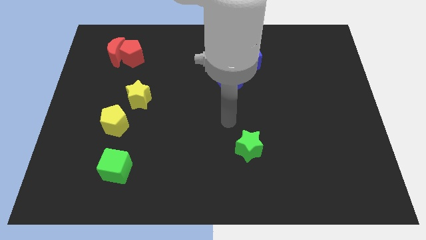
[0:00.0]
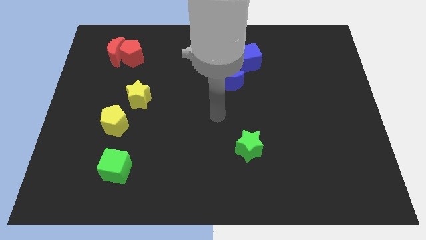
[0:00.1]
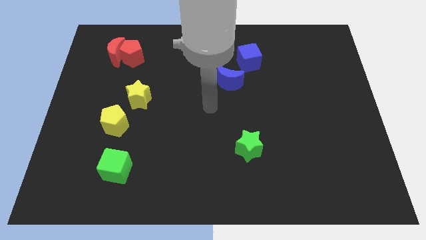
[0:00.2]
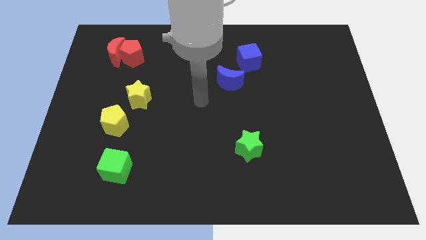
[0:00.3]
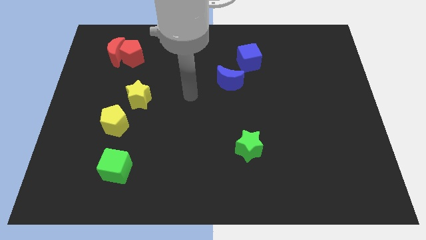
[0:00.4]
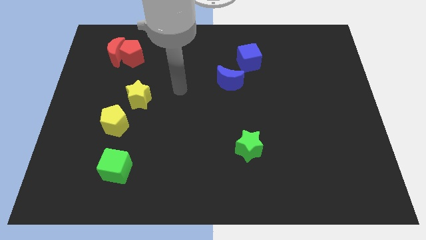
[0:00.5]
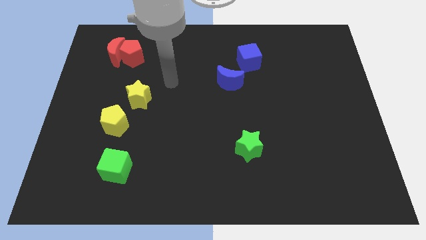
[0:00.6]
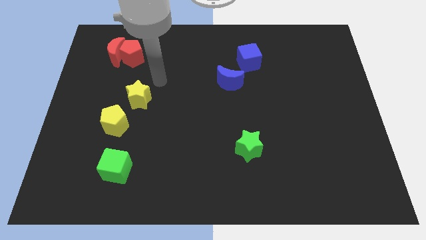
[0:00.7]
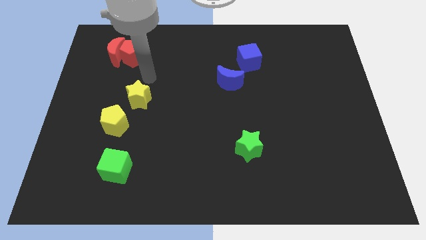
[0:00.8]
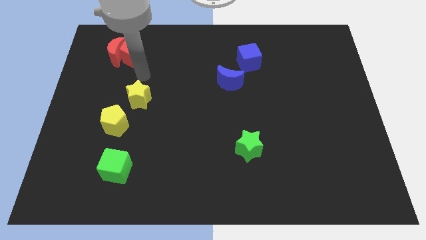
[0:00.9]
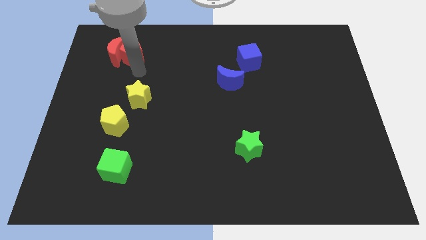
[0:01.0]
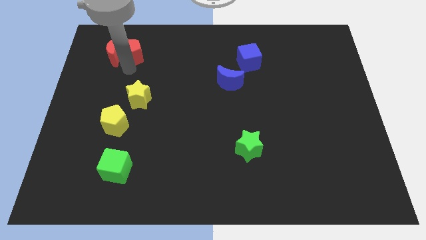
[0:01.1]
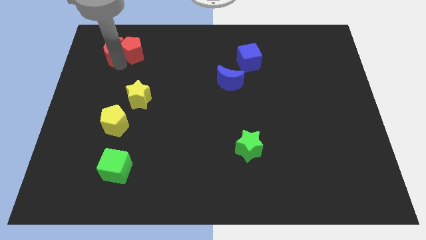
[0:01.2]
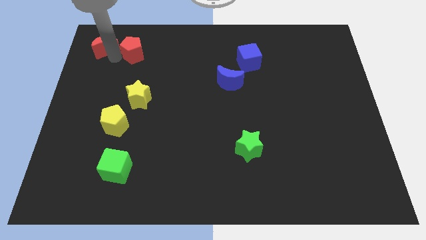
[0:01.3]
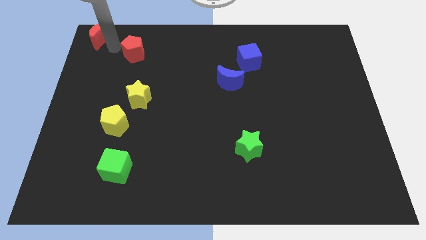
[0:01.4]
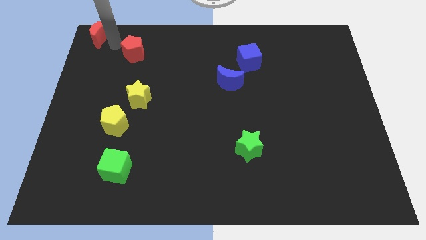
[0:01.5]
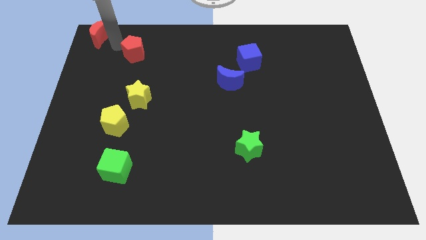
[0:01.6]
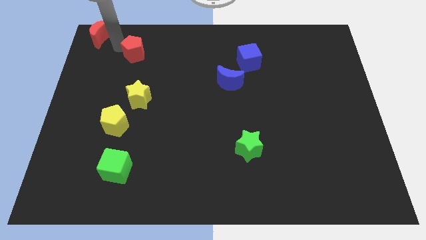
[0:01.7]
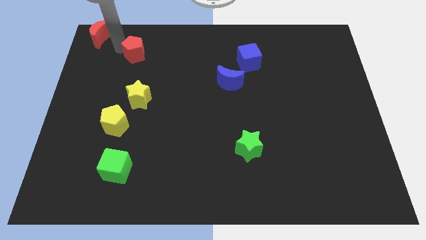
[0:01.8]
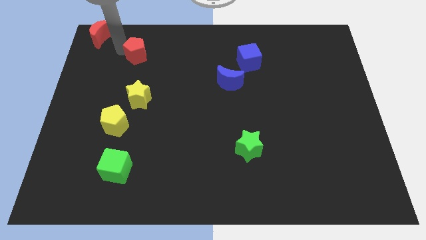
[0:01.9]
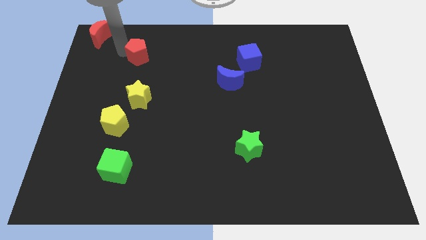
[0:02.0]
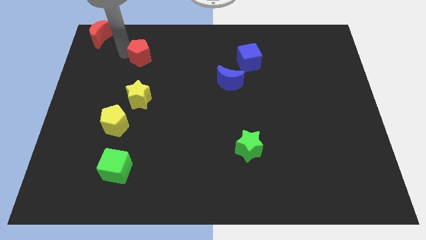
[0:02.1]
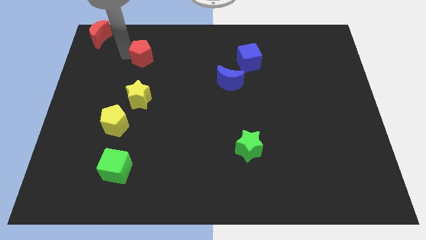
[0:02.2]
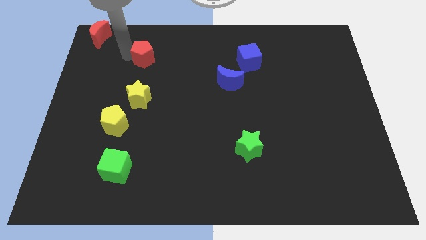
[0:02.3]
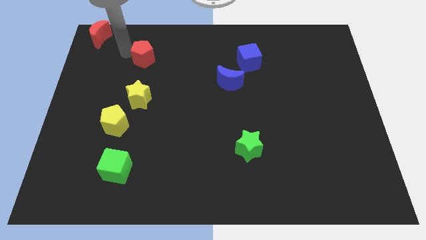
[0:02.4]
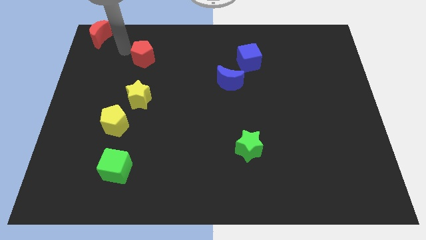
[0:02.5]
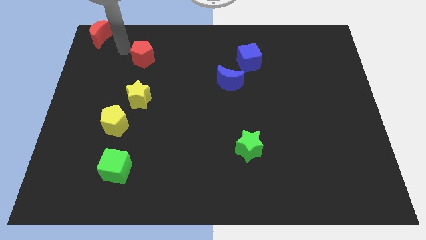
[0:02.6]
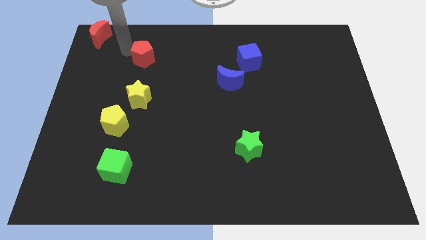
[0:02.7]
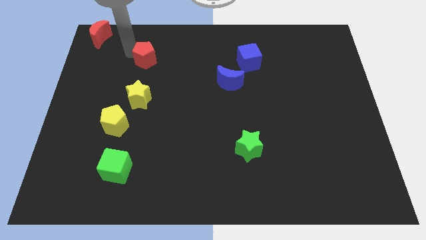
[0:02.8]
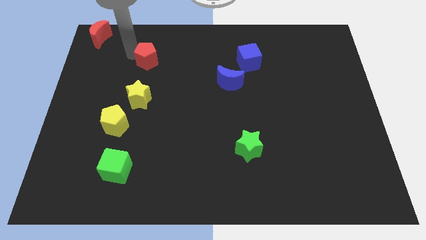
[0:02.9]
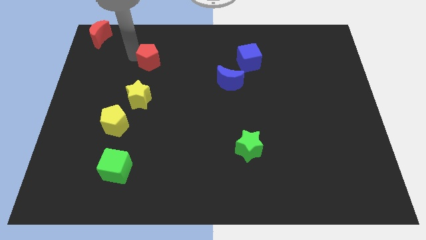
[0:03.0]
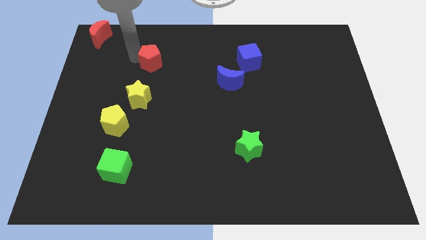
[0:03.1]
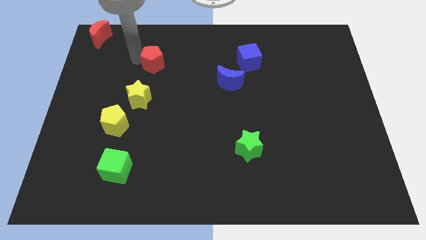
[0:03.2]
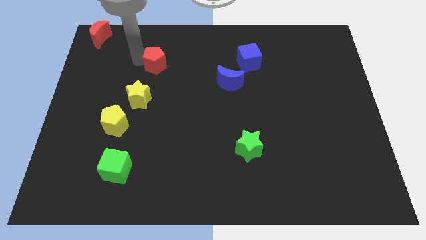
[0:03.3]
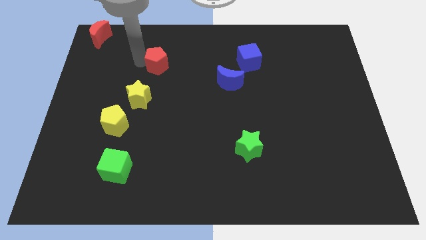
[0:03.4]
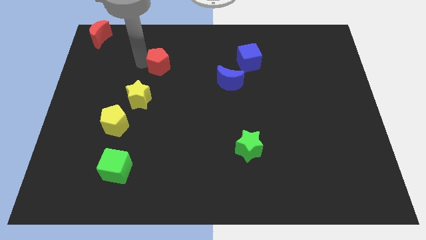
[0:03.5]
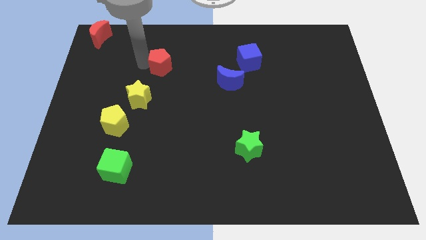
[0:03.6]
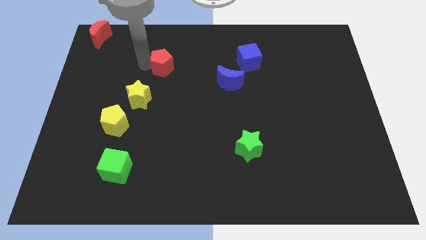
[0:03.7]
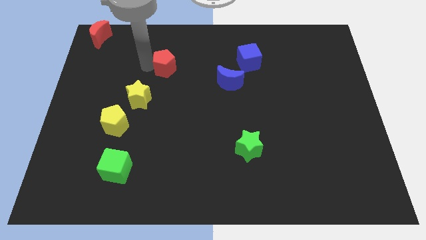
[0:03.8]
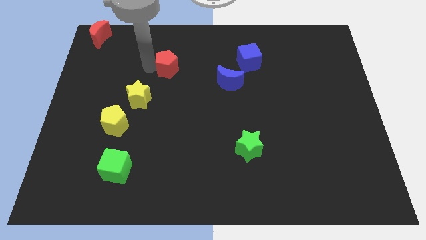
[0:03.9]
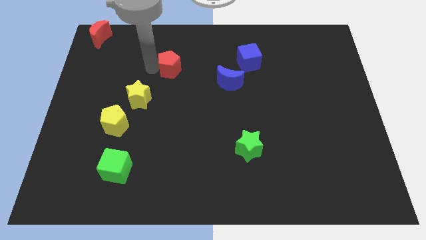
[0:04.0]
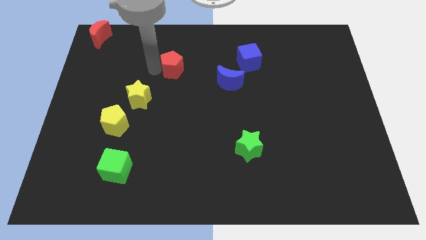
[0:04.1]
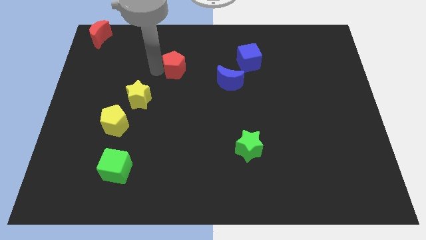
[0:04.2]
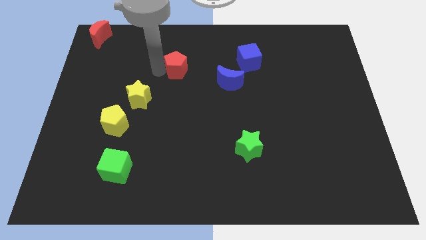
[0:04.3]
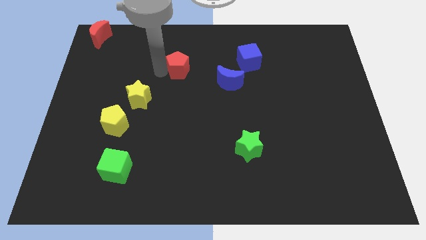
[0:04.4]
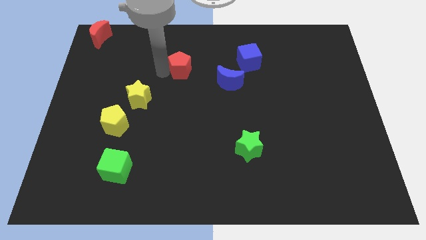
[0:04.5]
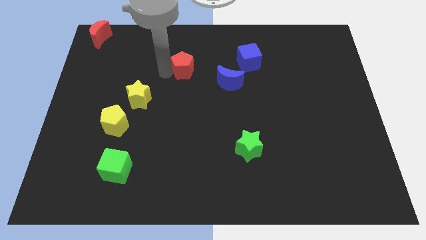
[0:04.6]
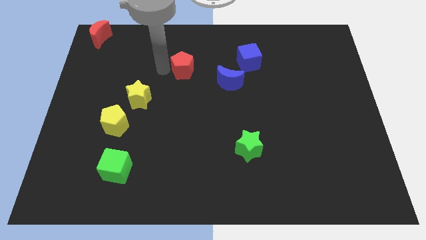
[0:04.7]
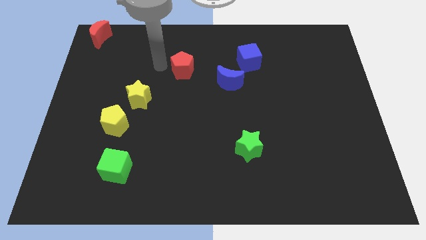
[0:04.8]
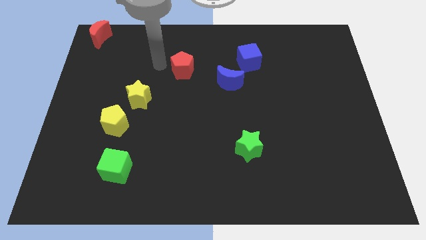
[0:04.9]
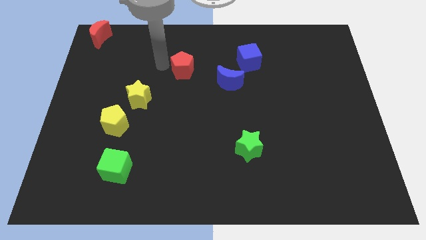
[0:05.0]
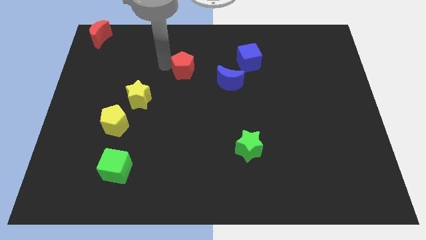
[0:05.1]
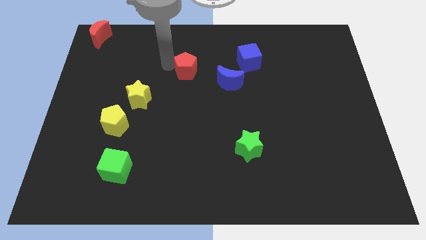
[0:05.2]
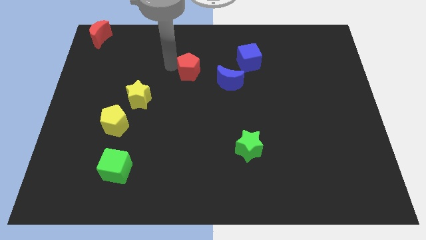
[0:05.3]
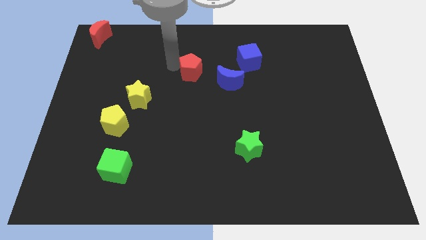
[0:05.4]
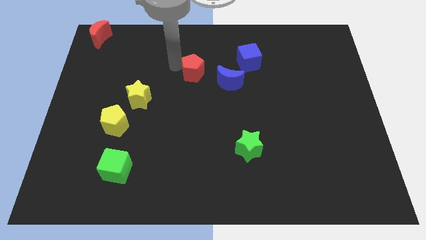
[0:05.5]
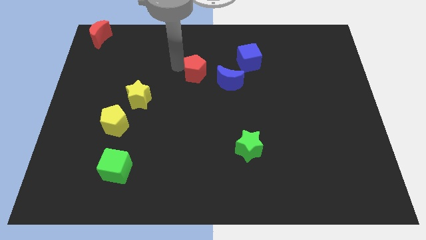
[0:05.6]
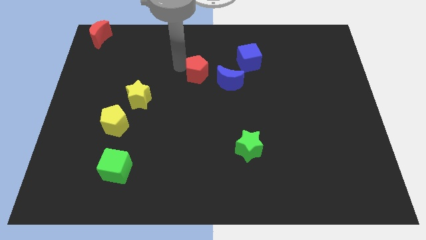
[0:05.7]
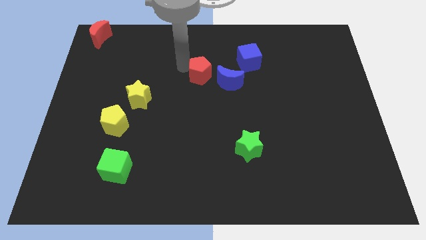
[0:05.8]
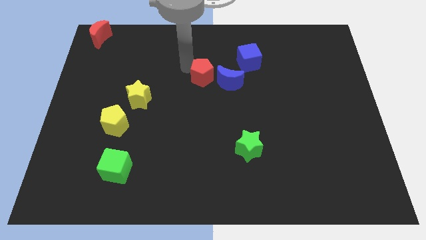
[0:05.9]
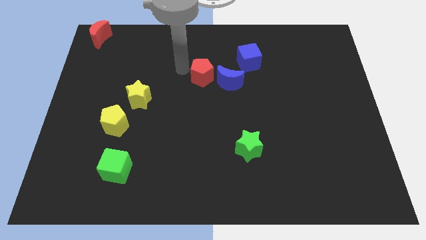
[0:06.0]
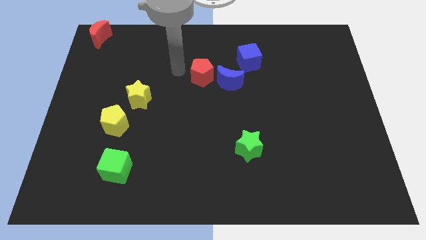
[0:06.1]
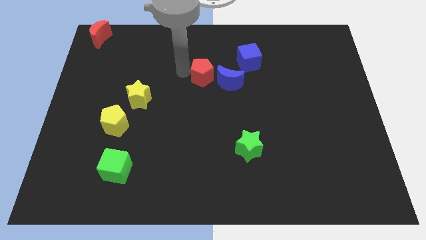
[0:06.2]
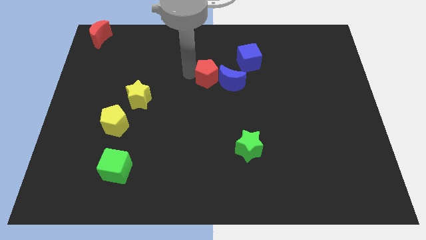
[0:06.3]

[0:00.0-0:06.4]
push the red pentagon towards the blue moon

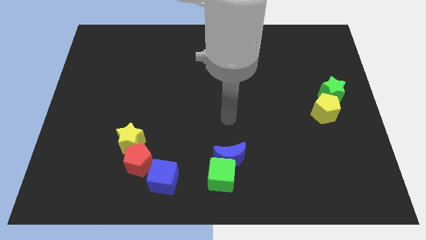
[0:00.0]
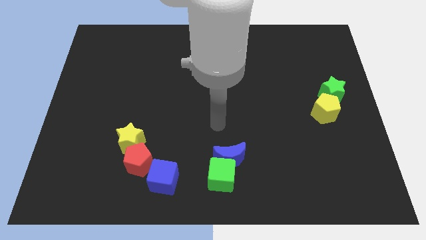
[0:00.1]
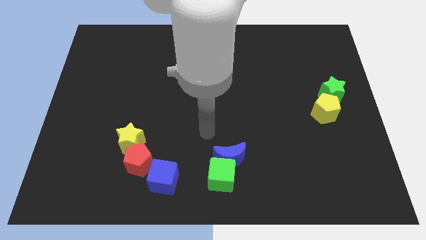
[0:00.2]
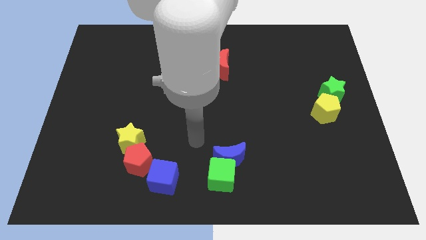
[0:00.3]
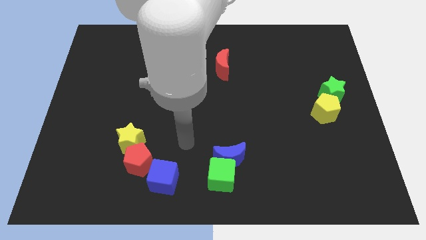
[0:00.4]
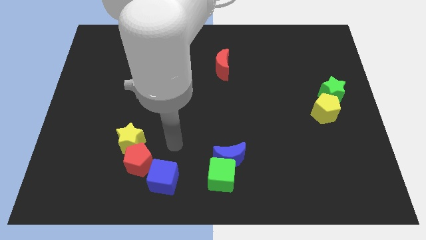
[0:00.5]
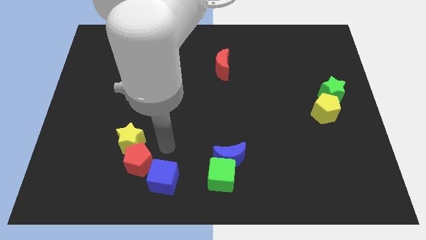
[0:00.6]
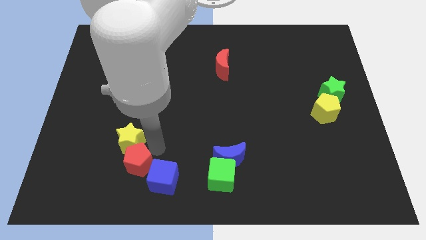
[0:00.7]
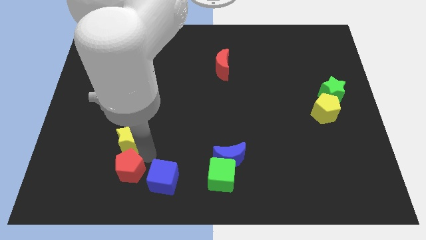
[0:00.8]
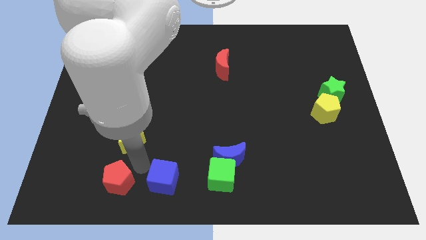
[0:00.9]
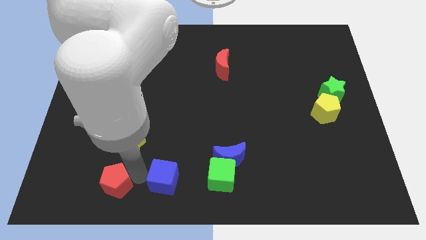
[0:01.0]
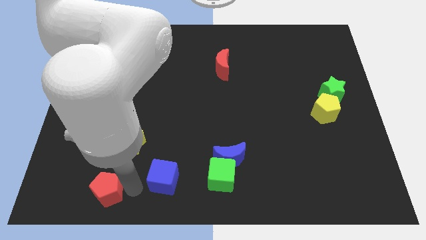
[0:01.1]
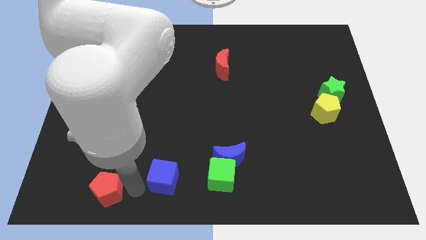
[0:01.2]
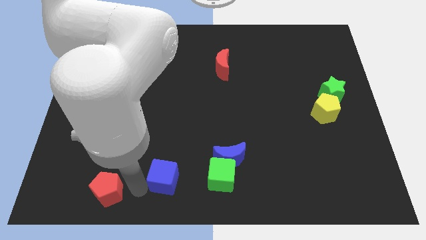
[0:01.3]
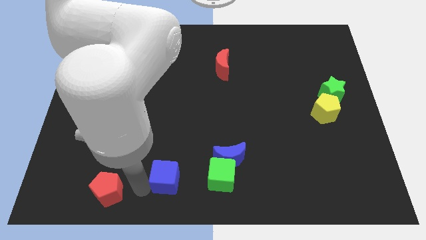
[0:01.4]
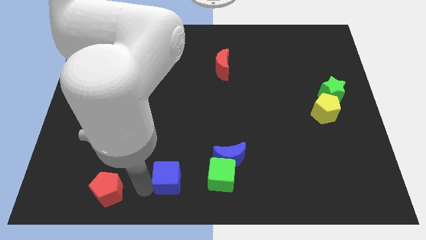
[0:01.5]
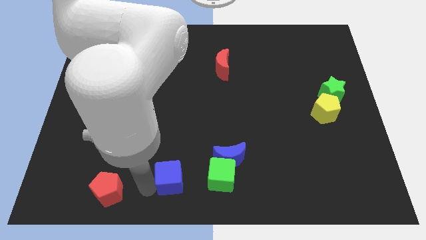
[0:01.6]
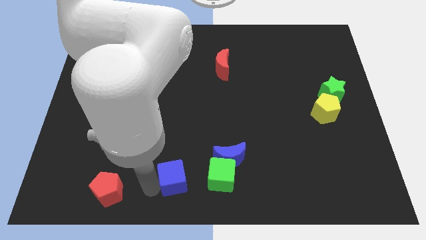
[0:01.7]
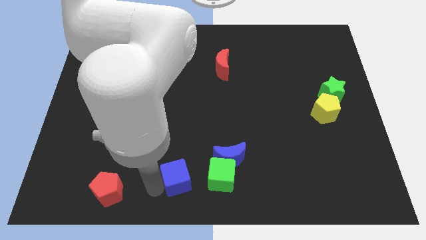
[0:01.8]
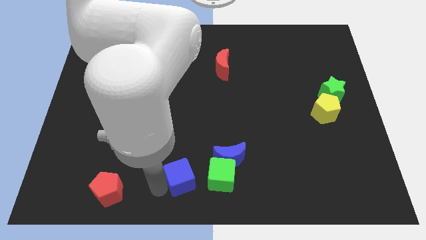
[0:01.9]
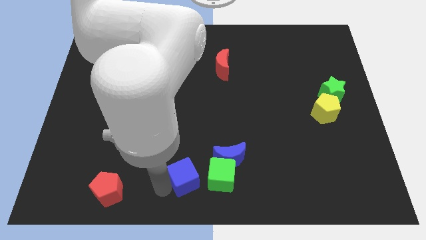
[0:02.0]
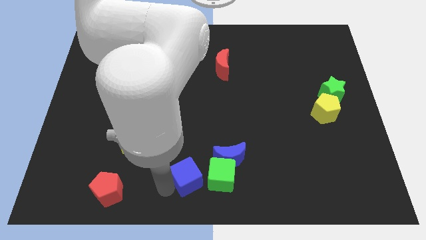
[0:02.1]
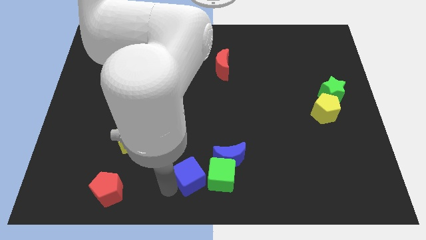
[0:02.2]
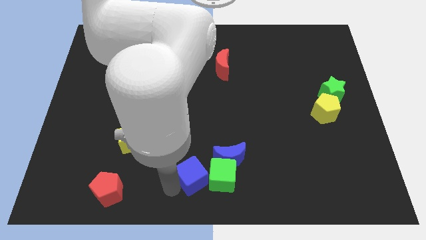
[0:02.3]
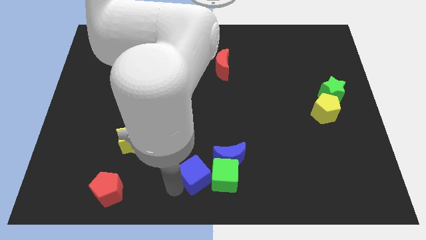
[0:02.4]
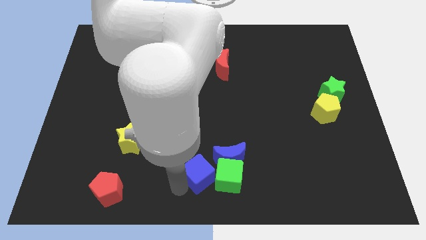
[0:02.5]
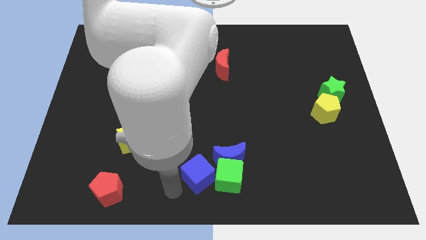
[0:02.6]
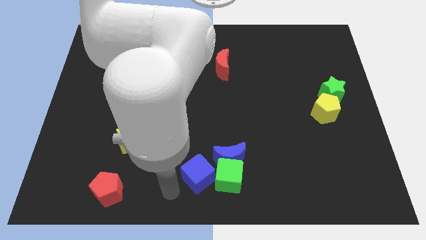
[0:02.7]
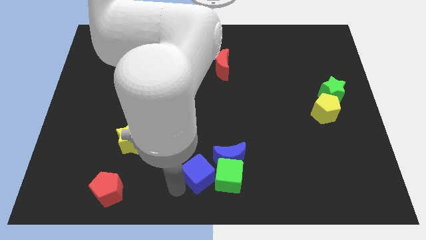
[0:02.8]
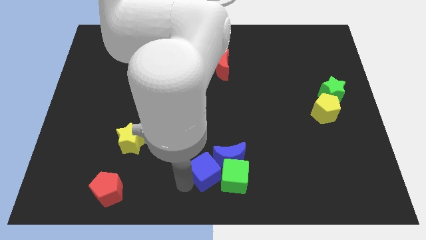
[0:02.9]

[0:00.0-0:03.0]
move the blue cube next to the blue moon
